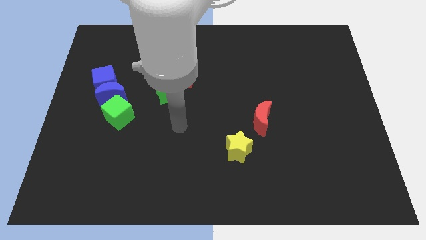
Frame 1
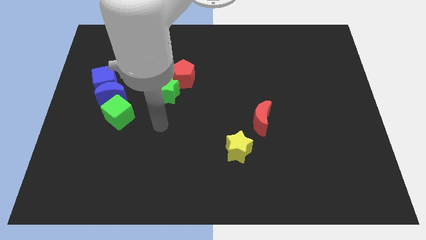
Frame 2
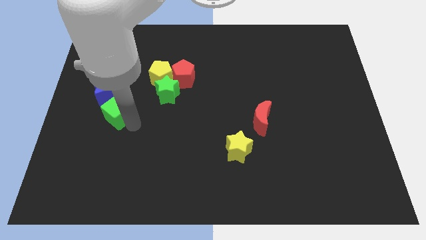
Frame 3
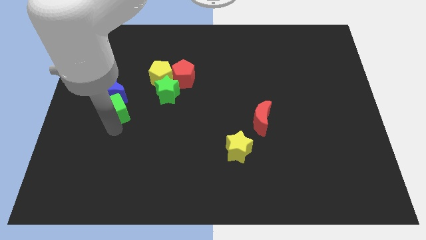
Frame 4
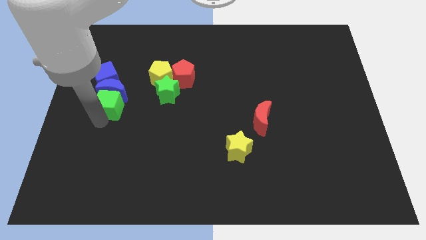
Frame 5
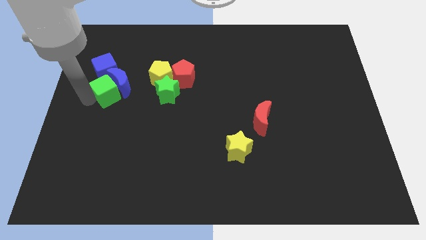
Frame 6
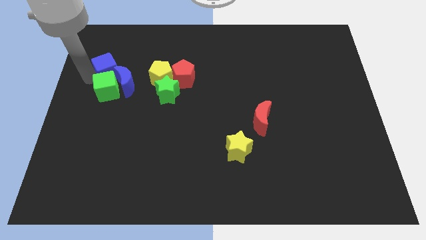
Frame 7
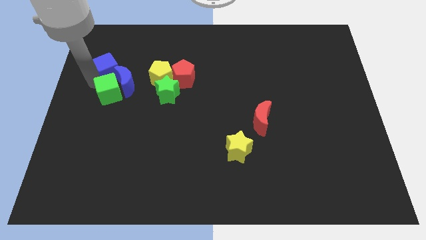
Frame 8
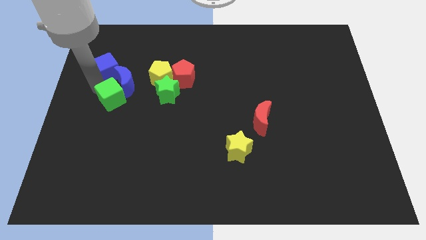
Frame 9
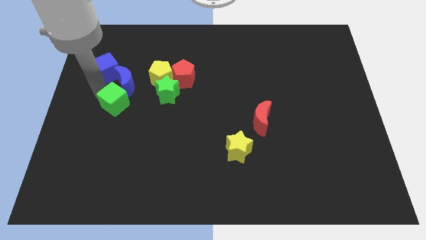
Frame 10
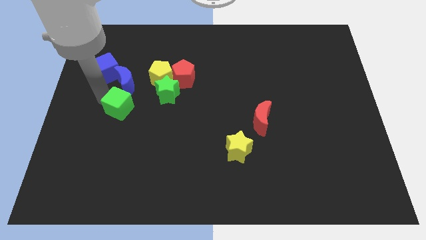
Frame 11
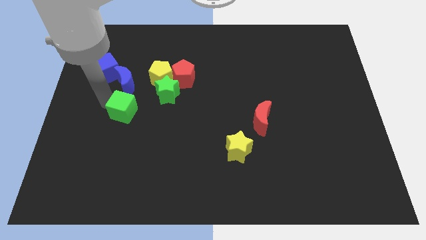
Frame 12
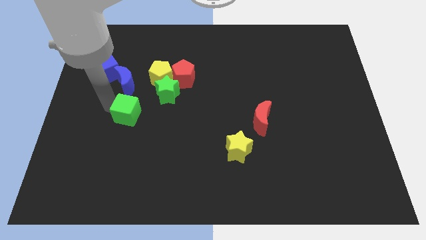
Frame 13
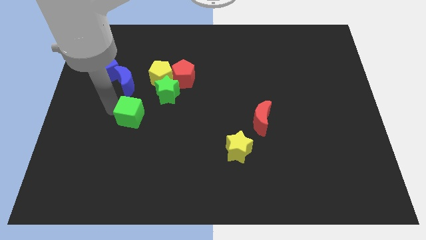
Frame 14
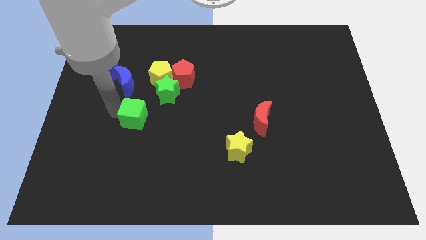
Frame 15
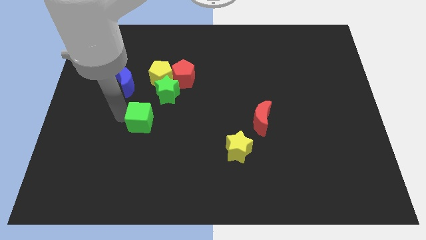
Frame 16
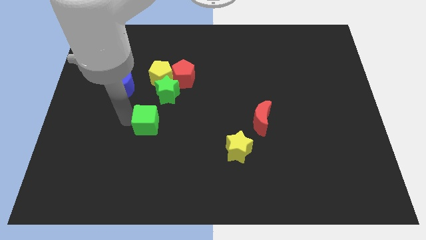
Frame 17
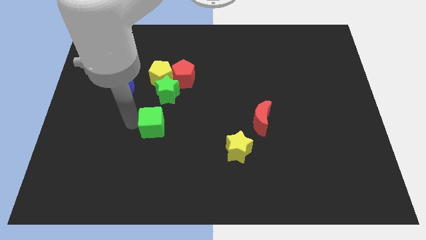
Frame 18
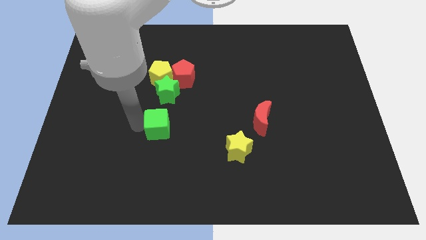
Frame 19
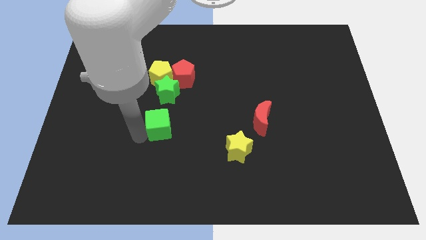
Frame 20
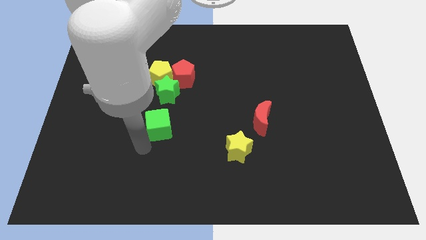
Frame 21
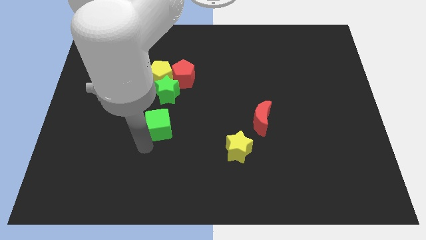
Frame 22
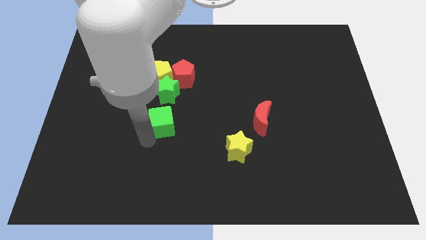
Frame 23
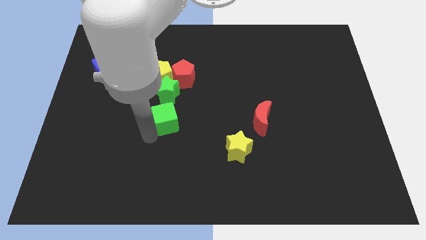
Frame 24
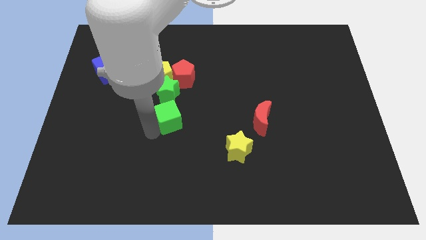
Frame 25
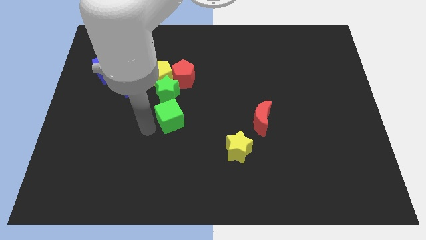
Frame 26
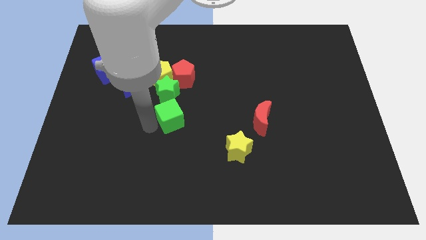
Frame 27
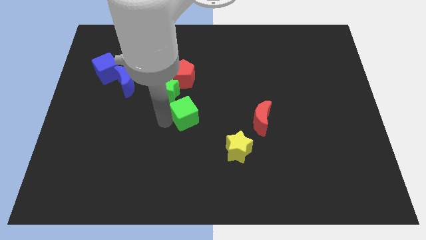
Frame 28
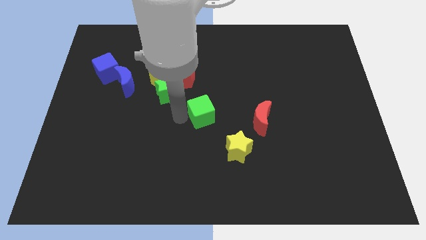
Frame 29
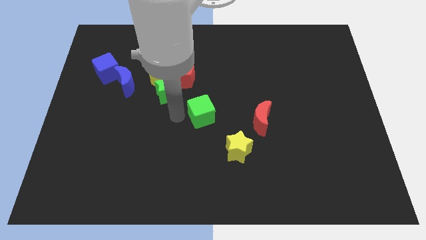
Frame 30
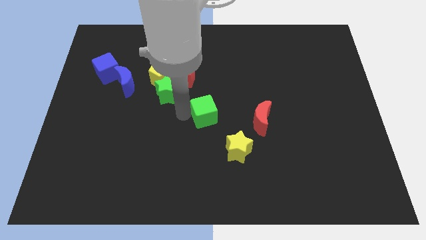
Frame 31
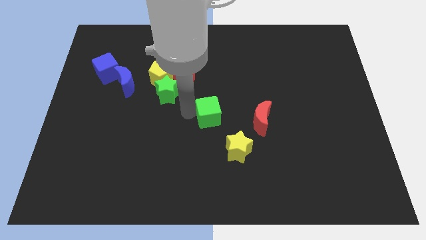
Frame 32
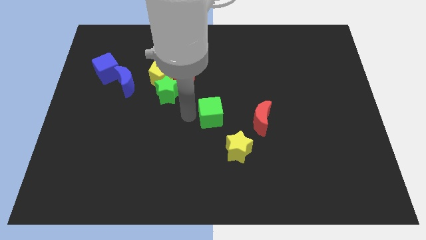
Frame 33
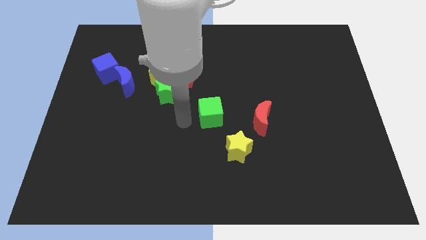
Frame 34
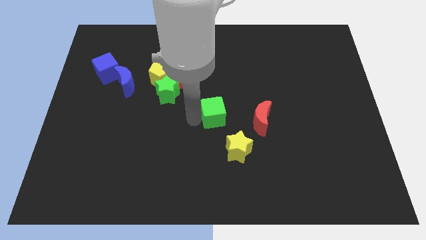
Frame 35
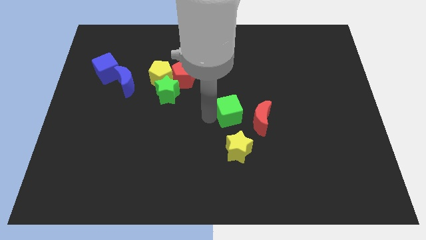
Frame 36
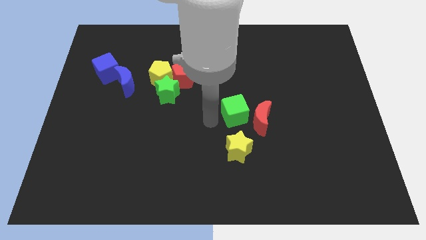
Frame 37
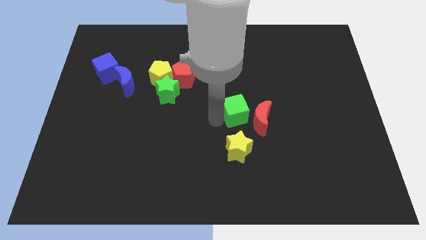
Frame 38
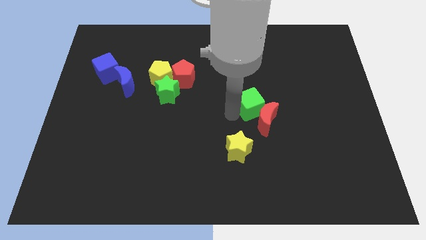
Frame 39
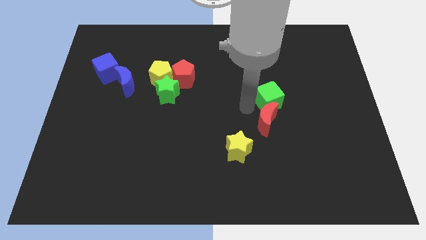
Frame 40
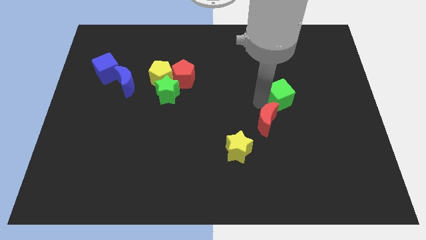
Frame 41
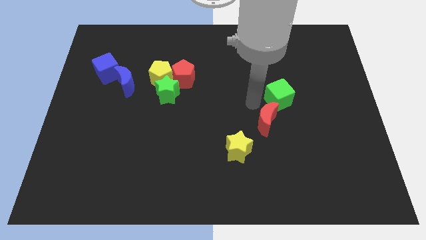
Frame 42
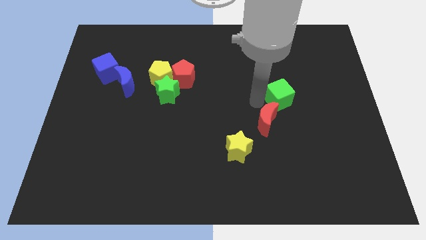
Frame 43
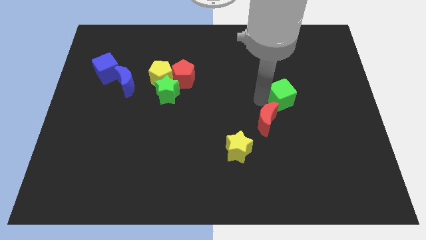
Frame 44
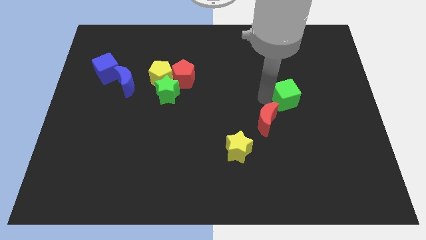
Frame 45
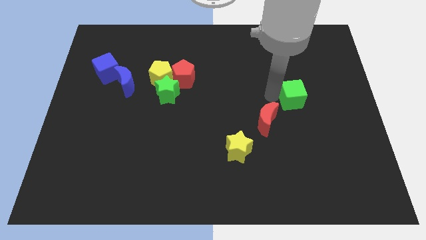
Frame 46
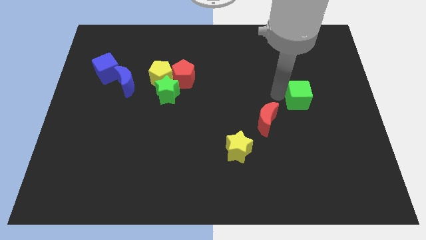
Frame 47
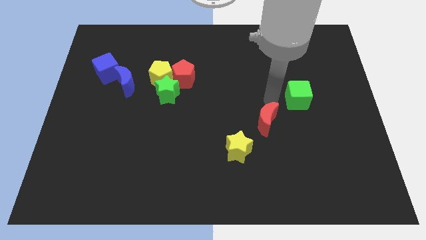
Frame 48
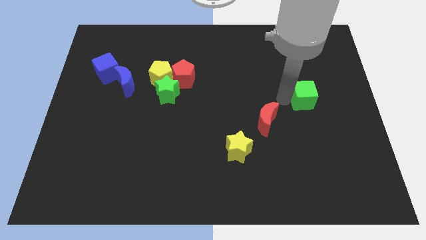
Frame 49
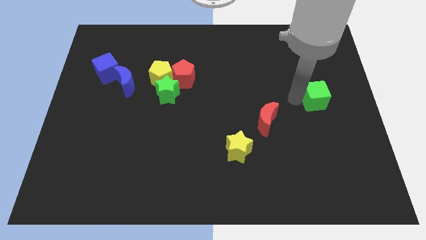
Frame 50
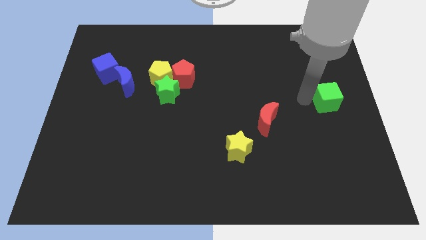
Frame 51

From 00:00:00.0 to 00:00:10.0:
slide the green cube to the center right
